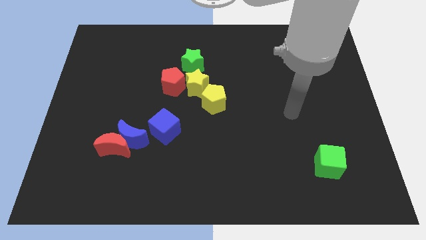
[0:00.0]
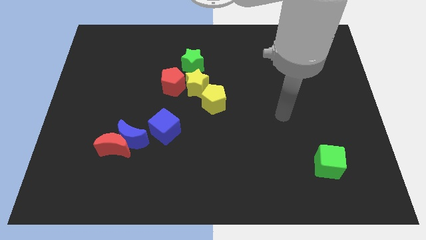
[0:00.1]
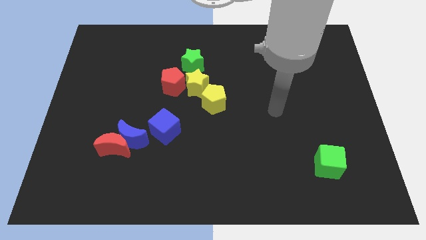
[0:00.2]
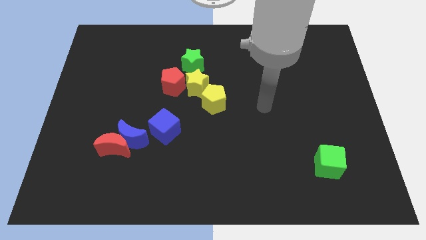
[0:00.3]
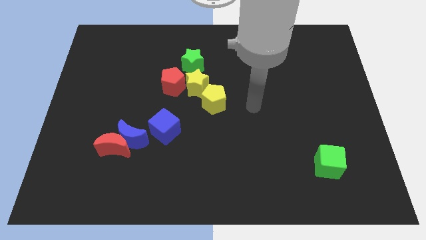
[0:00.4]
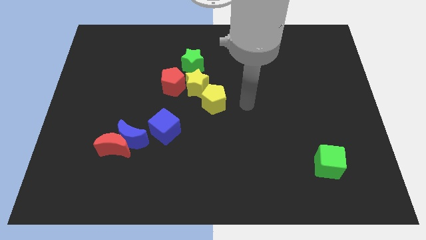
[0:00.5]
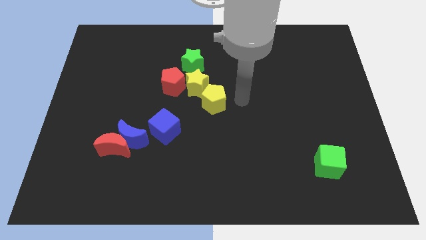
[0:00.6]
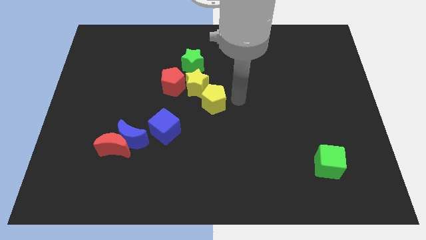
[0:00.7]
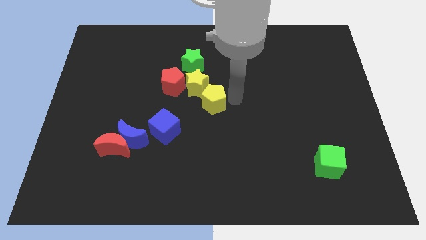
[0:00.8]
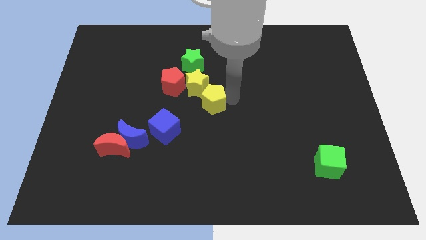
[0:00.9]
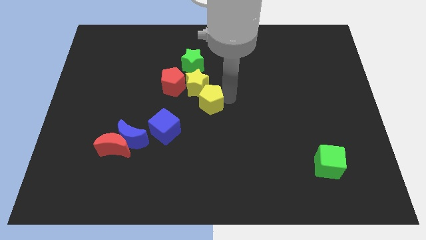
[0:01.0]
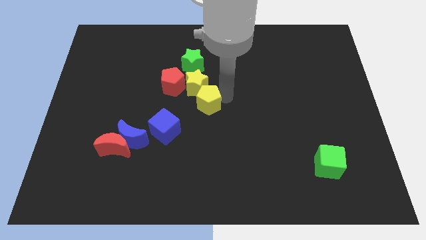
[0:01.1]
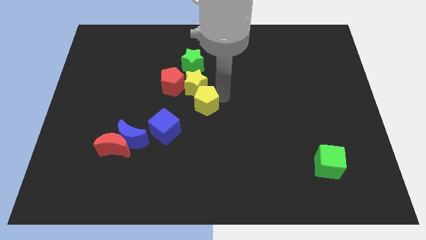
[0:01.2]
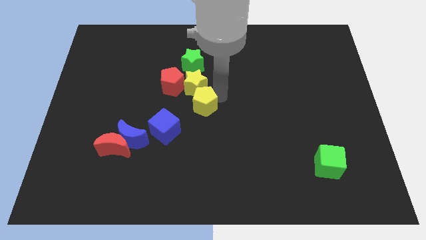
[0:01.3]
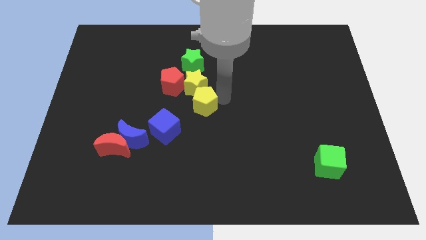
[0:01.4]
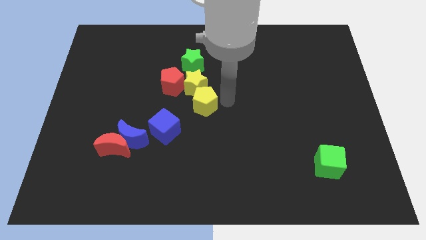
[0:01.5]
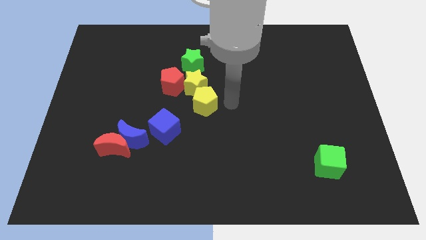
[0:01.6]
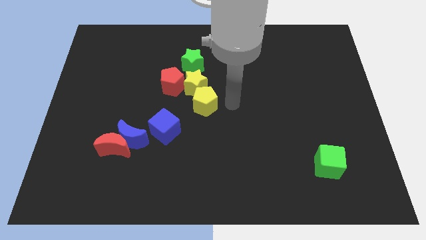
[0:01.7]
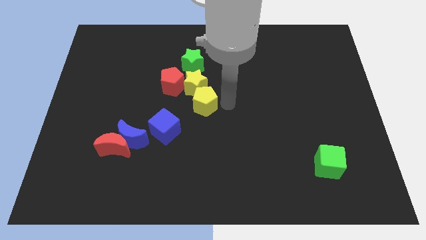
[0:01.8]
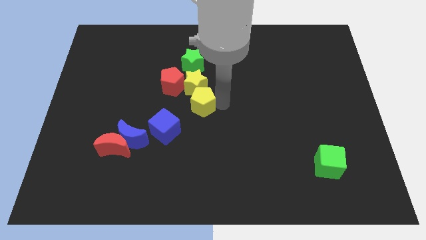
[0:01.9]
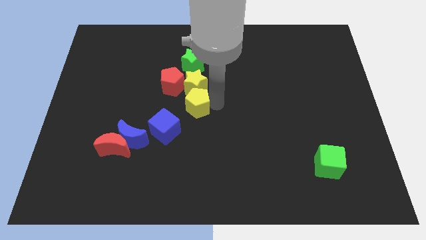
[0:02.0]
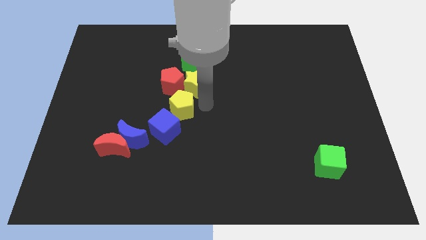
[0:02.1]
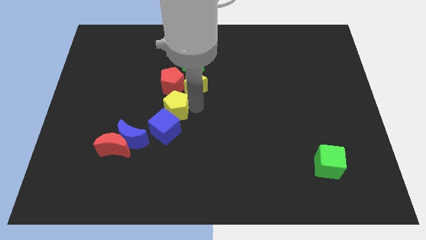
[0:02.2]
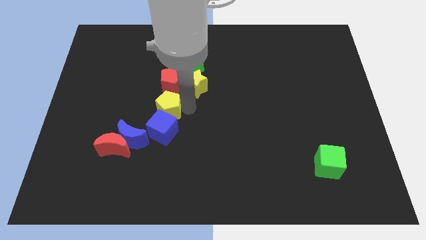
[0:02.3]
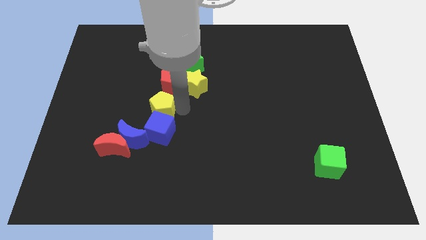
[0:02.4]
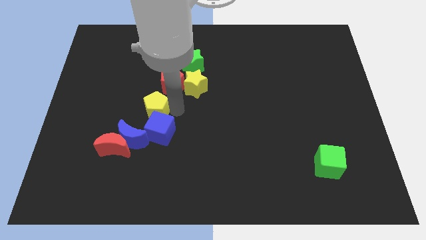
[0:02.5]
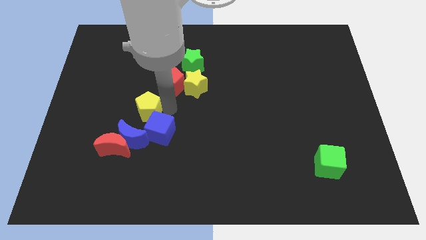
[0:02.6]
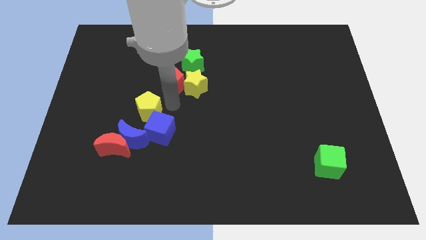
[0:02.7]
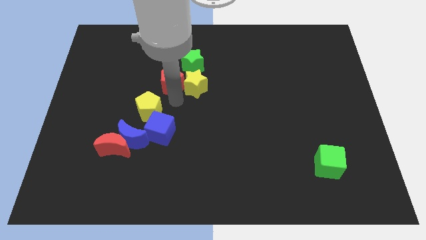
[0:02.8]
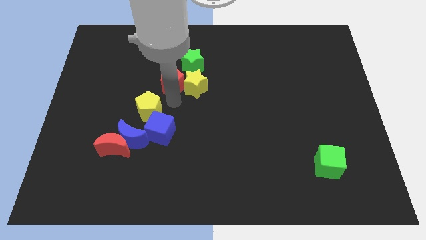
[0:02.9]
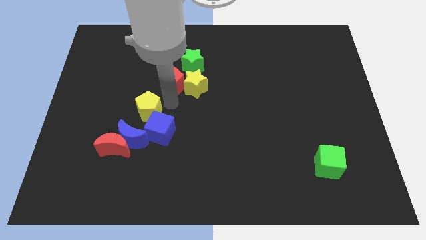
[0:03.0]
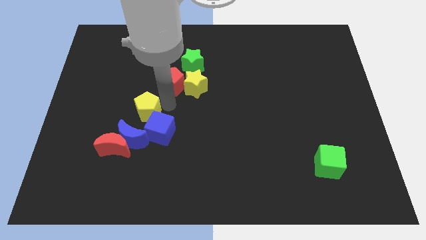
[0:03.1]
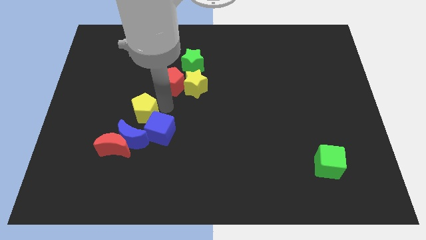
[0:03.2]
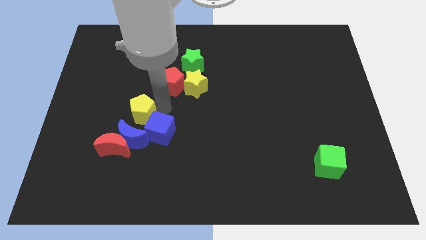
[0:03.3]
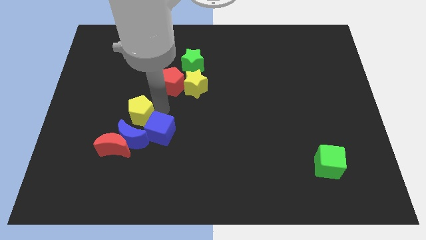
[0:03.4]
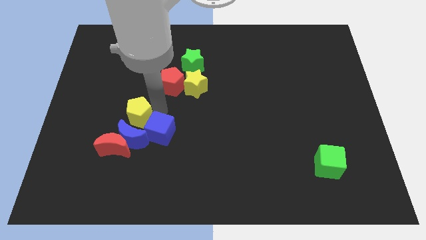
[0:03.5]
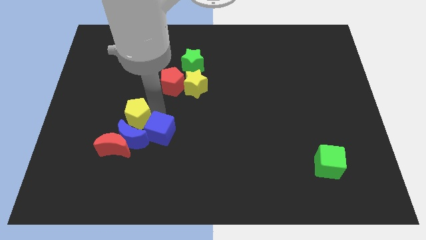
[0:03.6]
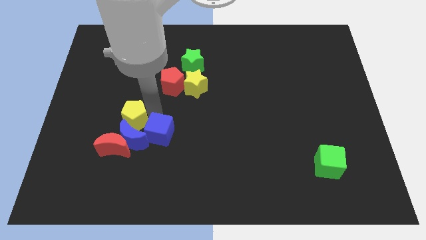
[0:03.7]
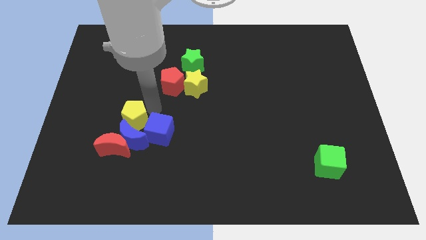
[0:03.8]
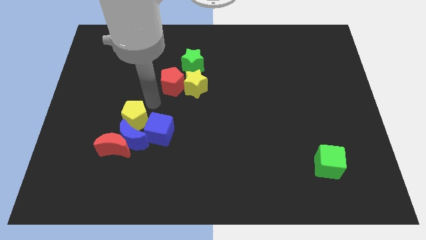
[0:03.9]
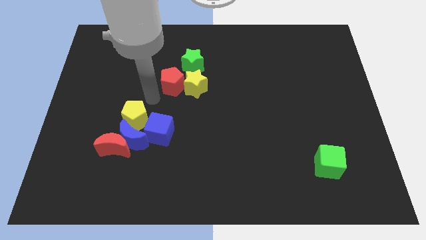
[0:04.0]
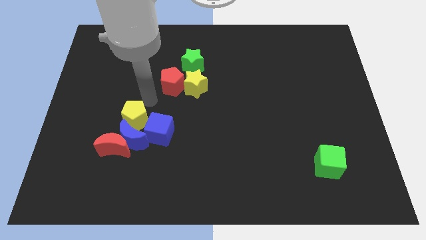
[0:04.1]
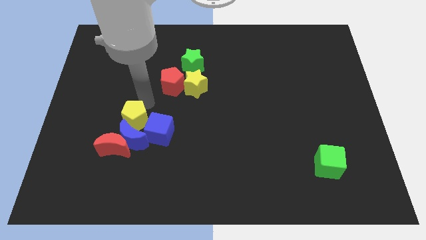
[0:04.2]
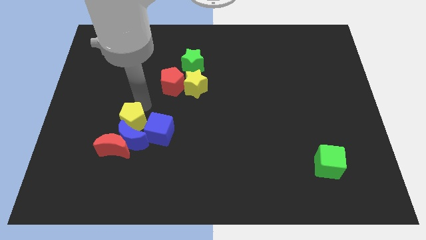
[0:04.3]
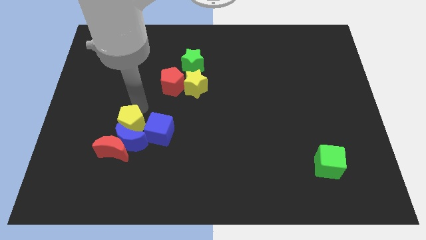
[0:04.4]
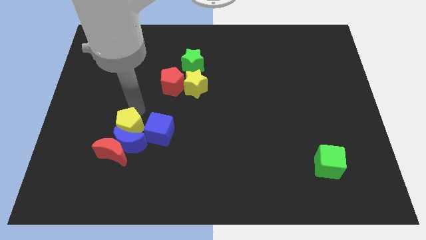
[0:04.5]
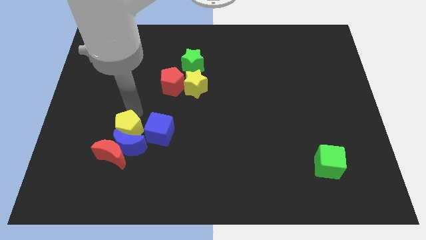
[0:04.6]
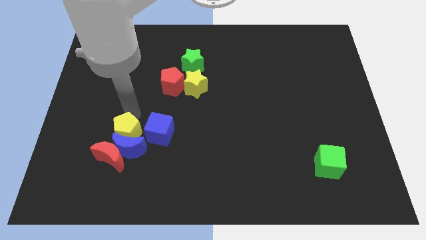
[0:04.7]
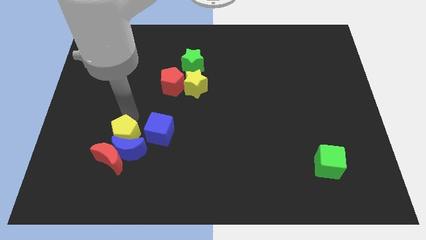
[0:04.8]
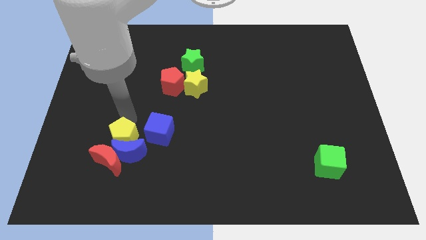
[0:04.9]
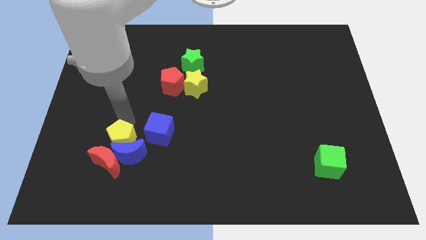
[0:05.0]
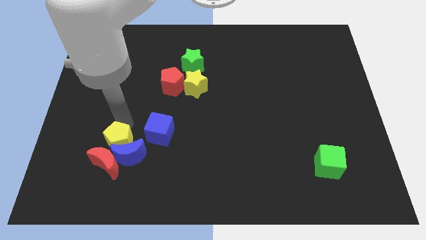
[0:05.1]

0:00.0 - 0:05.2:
slide the yellow pentagon next to the red moon

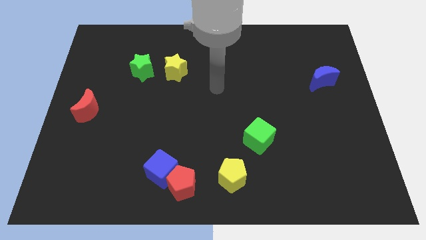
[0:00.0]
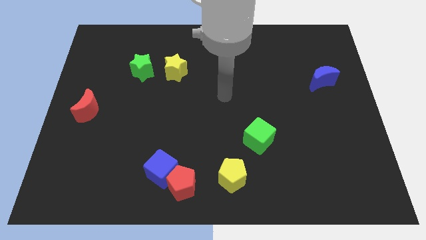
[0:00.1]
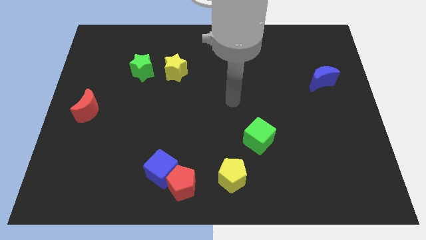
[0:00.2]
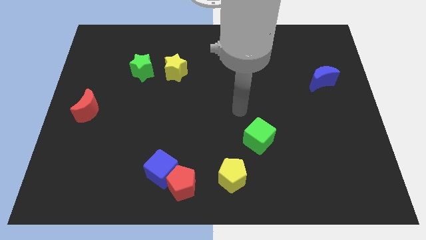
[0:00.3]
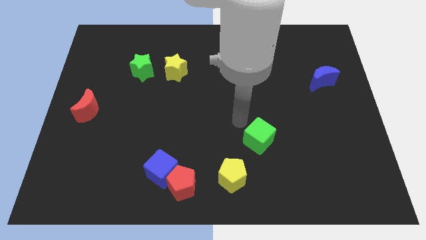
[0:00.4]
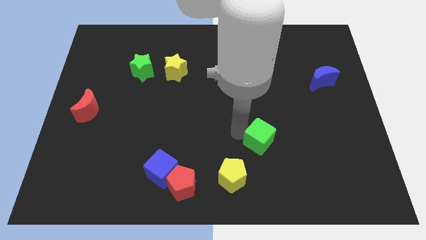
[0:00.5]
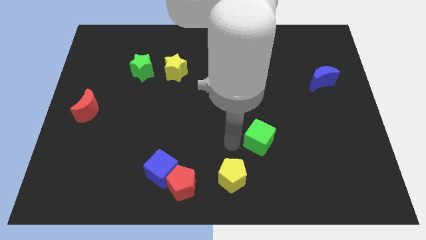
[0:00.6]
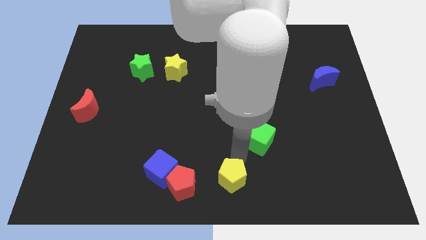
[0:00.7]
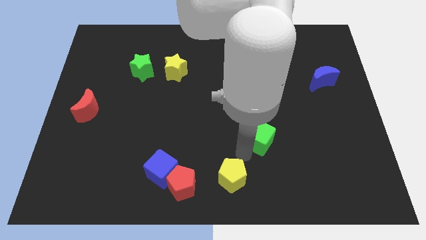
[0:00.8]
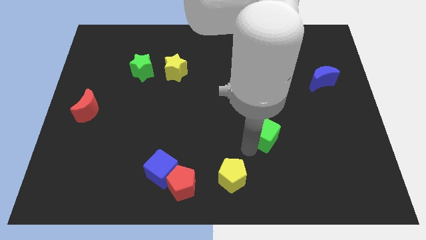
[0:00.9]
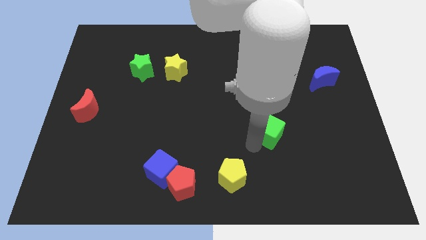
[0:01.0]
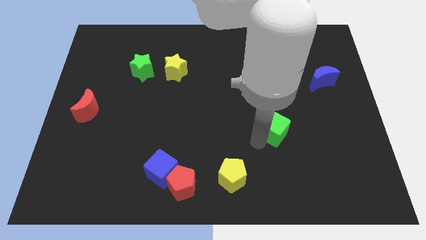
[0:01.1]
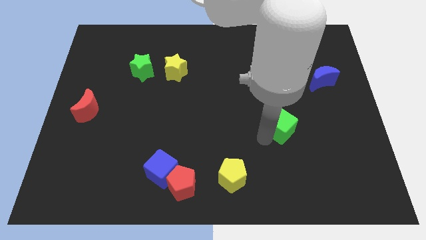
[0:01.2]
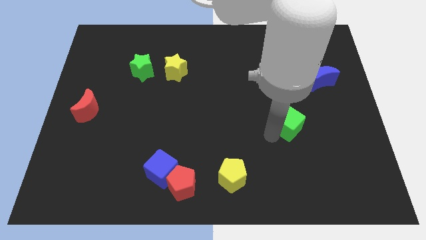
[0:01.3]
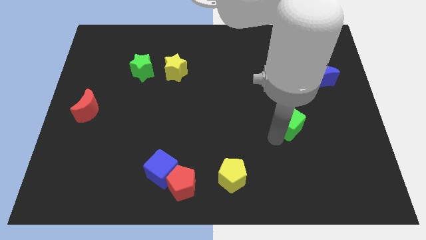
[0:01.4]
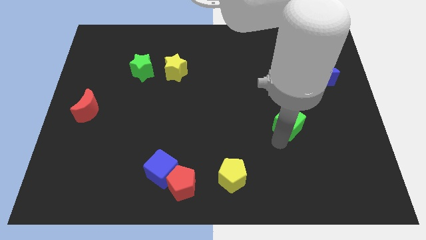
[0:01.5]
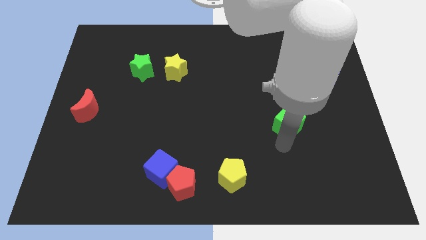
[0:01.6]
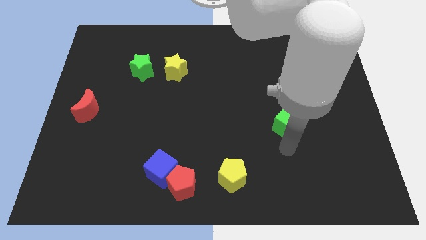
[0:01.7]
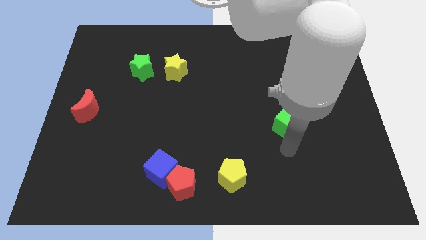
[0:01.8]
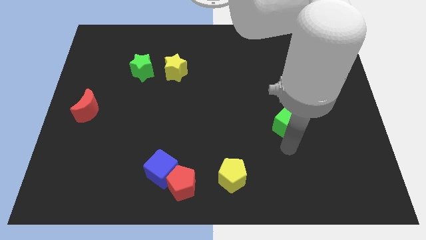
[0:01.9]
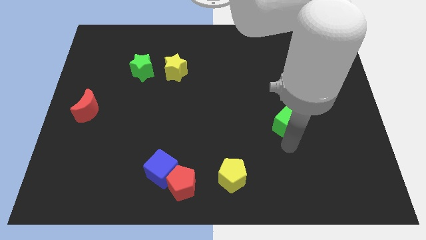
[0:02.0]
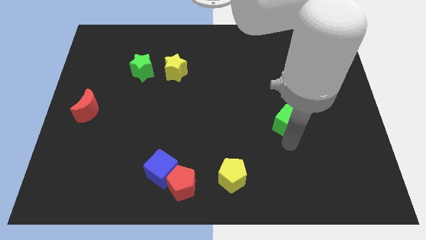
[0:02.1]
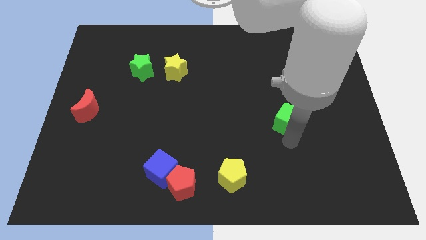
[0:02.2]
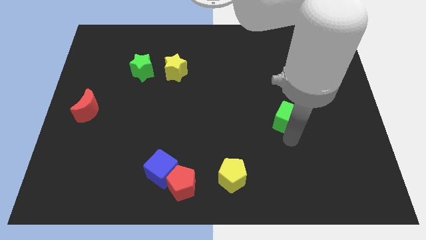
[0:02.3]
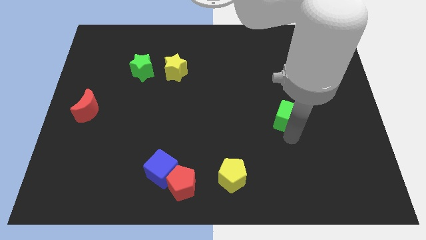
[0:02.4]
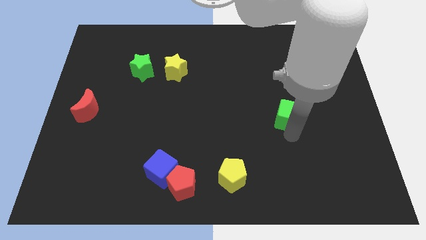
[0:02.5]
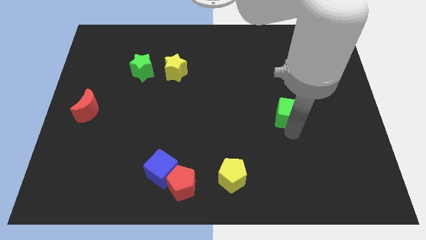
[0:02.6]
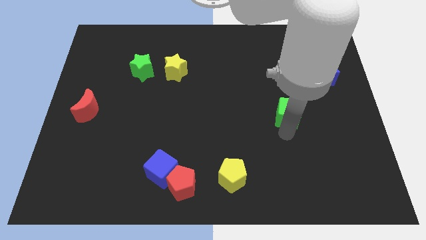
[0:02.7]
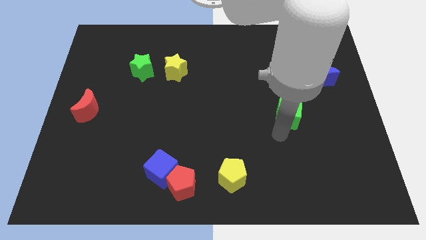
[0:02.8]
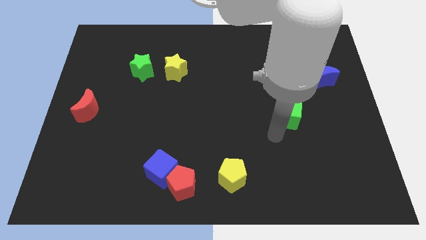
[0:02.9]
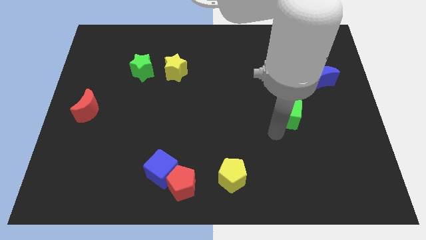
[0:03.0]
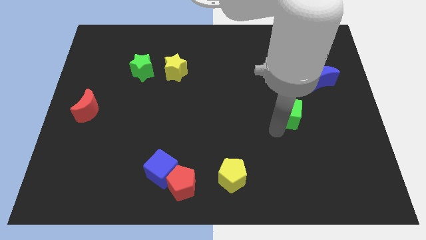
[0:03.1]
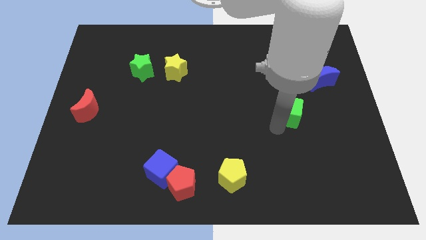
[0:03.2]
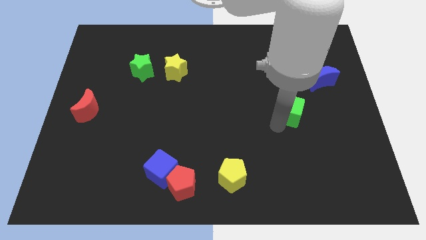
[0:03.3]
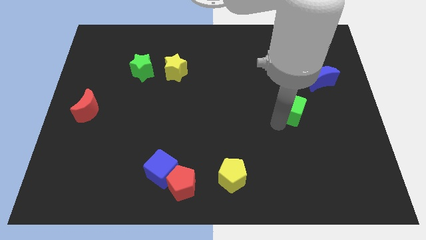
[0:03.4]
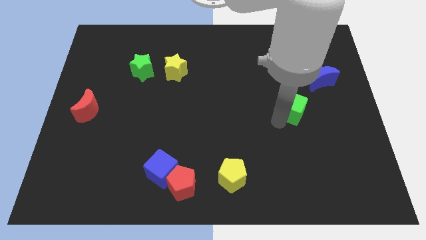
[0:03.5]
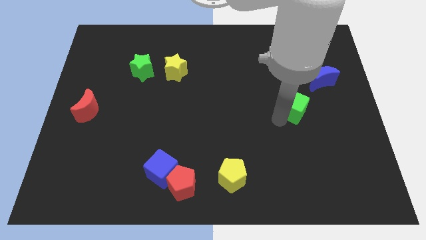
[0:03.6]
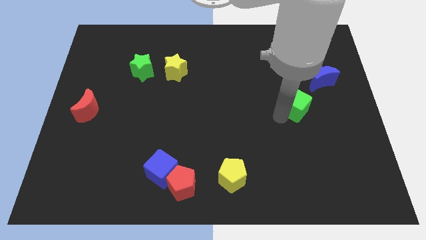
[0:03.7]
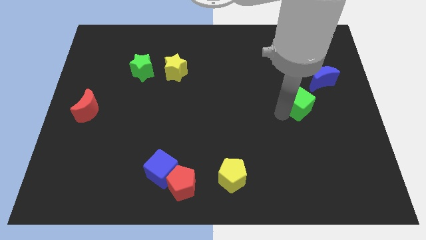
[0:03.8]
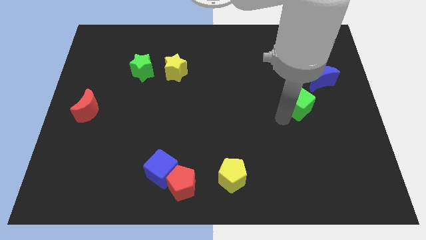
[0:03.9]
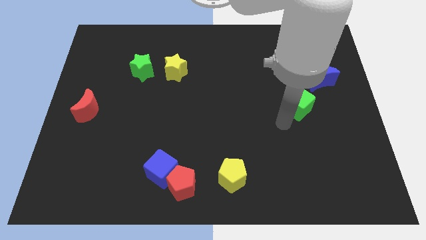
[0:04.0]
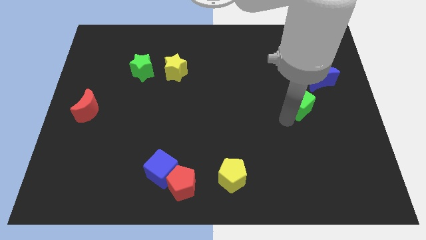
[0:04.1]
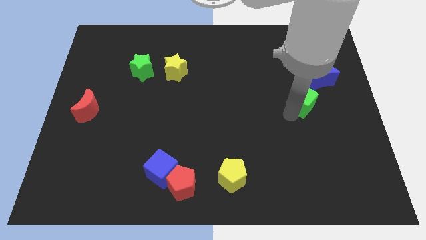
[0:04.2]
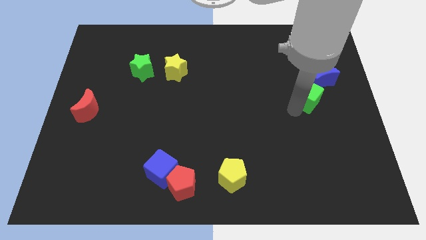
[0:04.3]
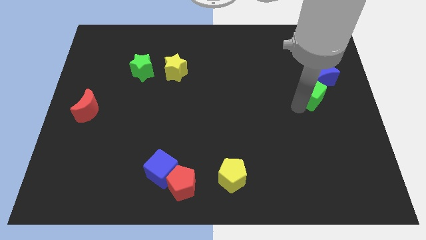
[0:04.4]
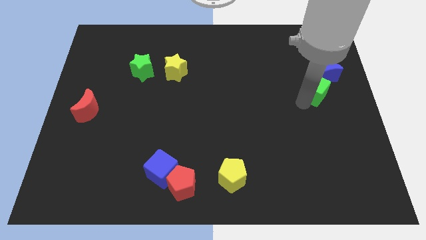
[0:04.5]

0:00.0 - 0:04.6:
push the green cube to the blue moon
